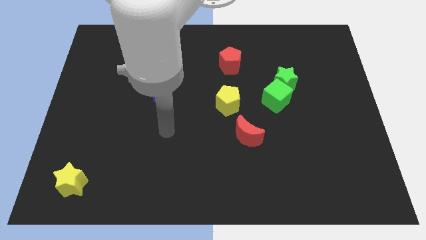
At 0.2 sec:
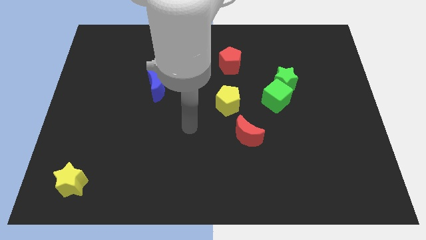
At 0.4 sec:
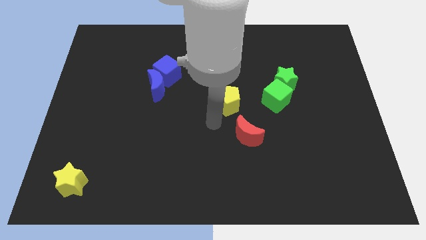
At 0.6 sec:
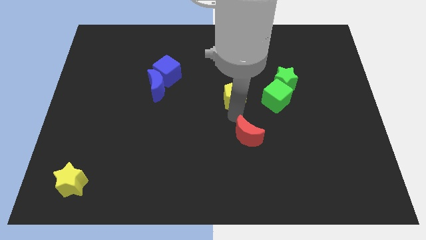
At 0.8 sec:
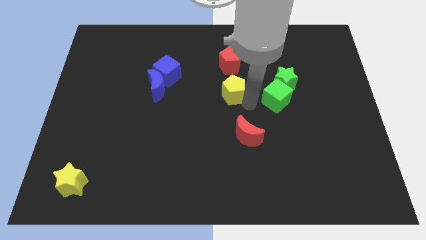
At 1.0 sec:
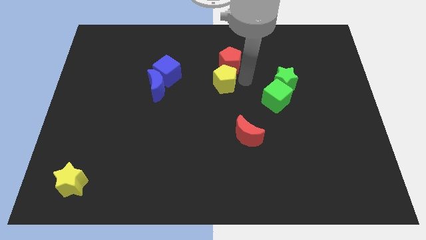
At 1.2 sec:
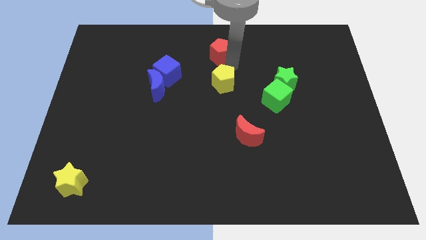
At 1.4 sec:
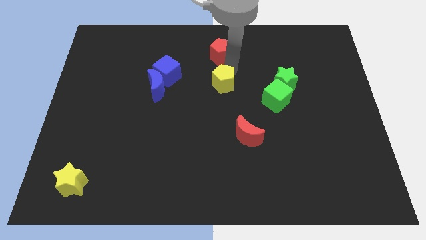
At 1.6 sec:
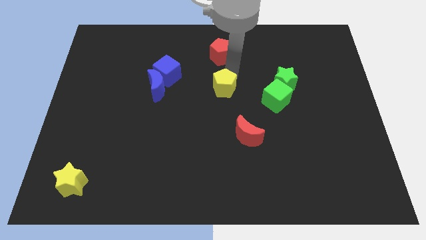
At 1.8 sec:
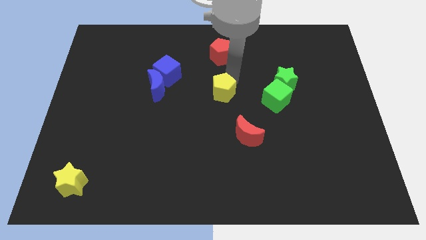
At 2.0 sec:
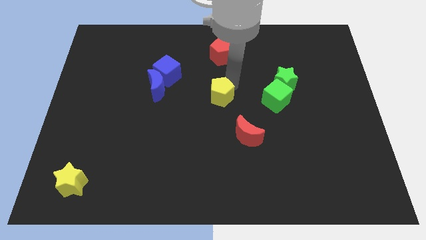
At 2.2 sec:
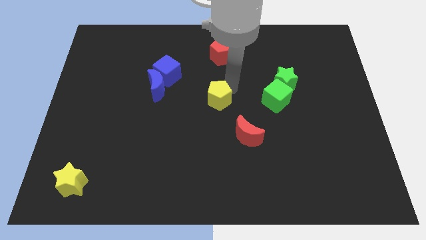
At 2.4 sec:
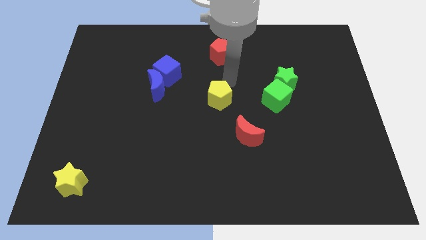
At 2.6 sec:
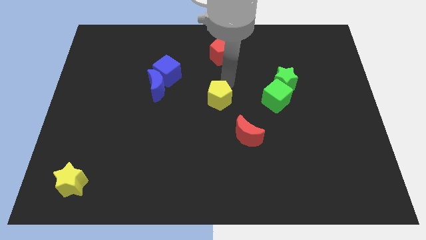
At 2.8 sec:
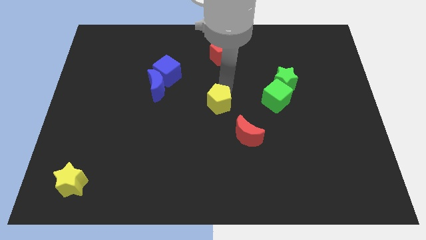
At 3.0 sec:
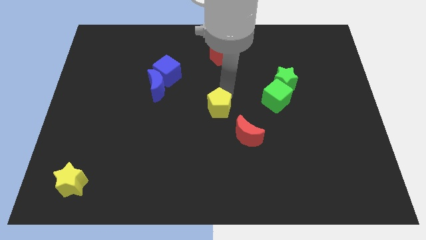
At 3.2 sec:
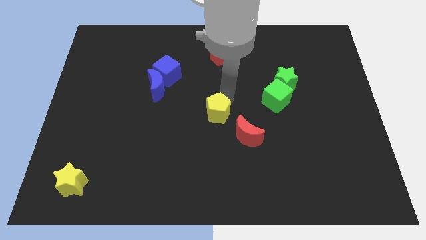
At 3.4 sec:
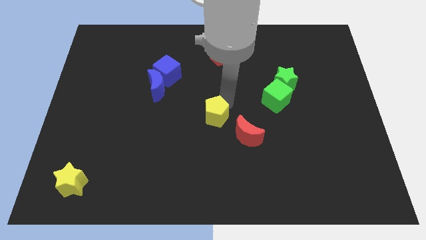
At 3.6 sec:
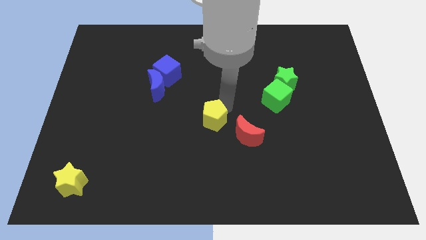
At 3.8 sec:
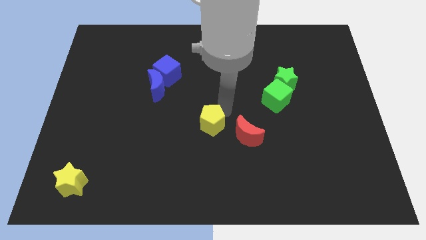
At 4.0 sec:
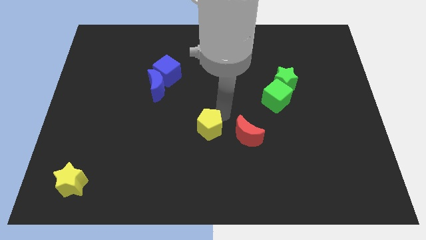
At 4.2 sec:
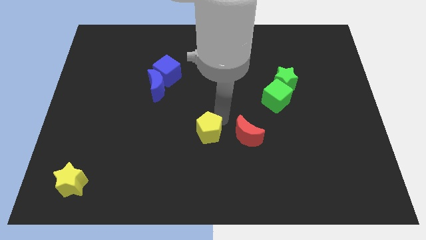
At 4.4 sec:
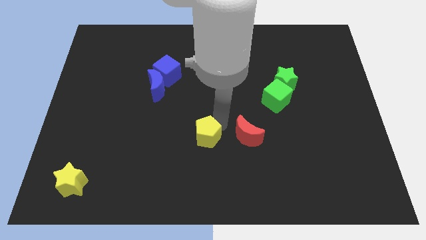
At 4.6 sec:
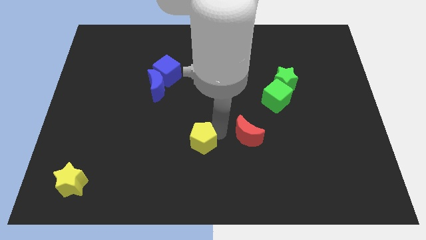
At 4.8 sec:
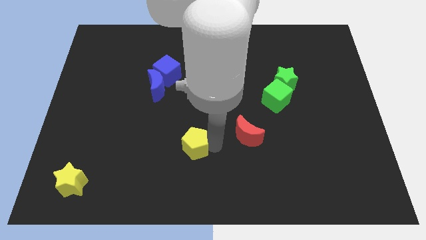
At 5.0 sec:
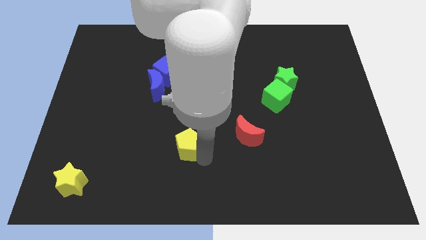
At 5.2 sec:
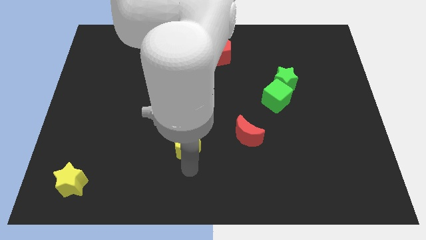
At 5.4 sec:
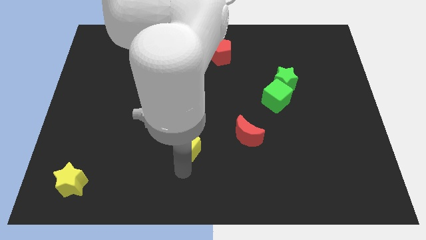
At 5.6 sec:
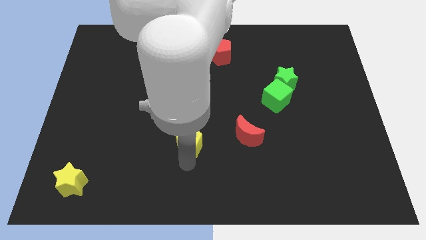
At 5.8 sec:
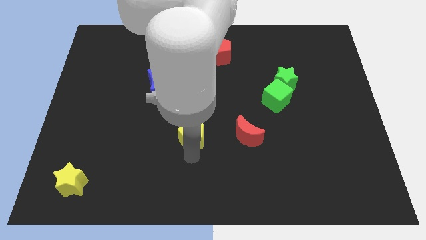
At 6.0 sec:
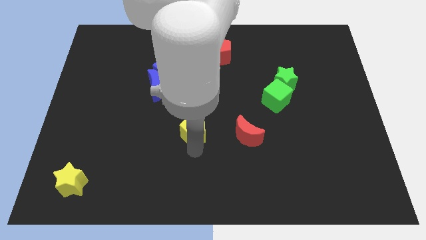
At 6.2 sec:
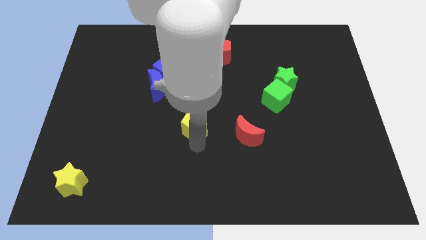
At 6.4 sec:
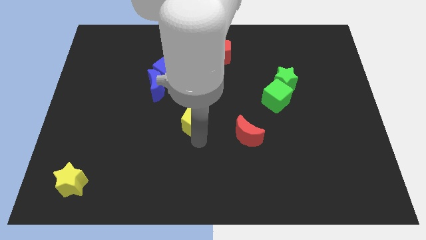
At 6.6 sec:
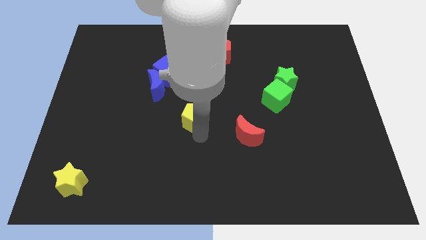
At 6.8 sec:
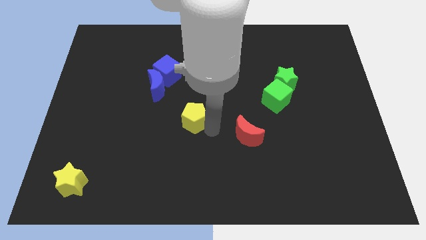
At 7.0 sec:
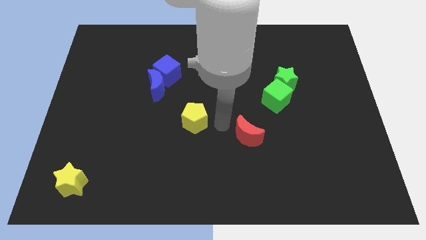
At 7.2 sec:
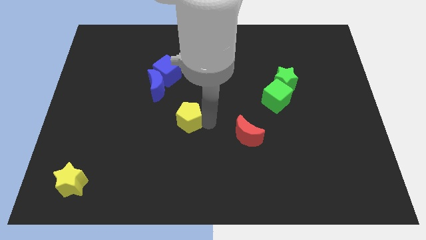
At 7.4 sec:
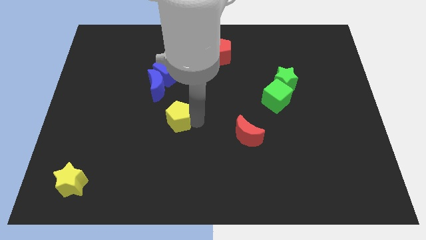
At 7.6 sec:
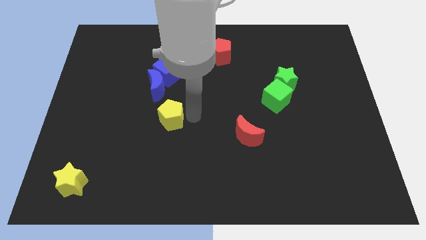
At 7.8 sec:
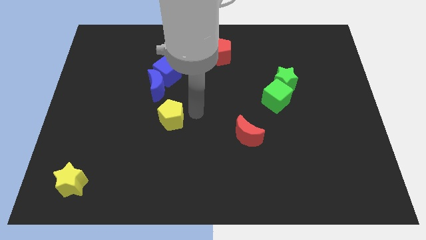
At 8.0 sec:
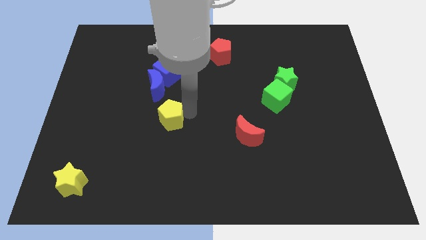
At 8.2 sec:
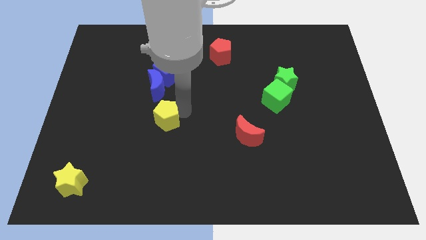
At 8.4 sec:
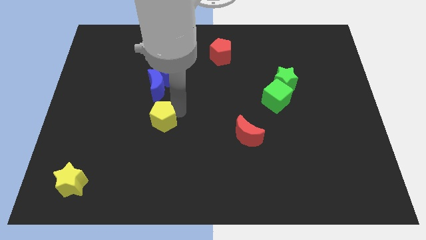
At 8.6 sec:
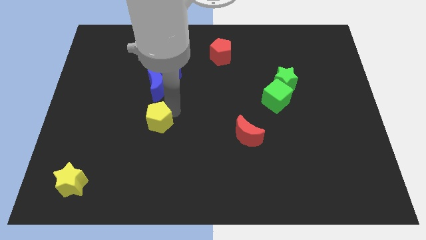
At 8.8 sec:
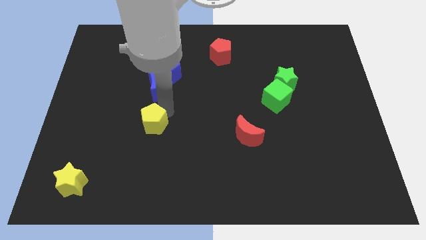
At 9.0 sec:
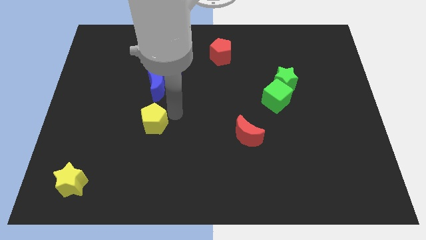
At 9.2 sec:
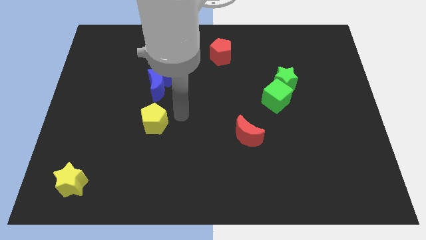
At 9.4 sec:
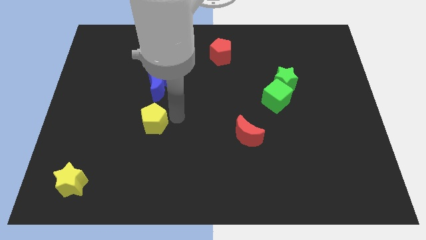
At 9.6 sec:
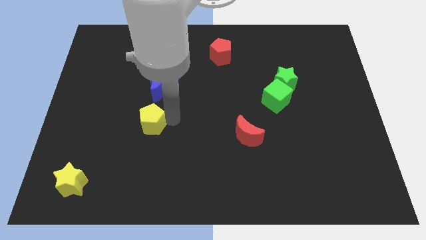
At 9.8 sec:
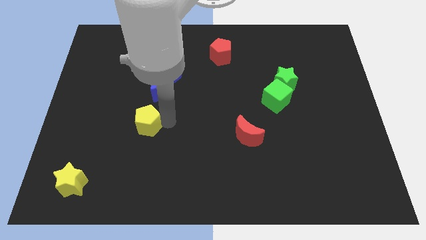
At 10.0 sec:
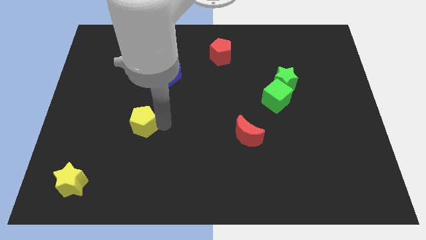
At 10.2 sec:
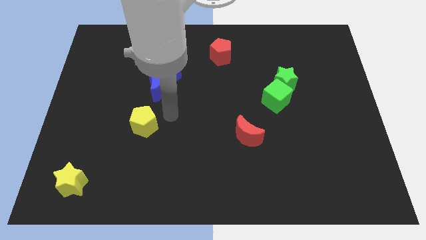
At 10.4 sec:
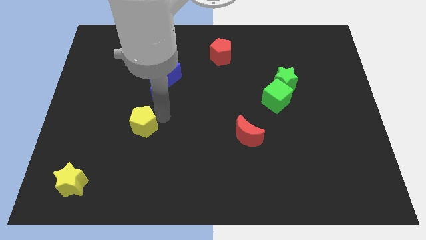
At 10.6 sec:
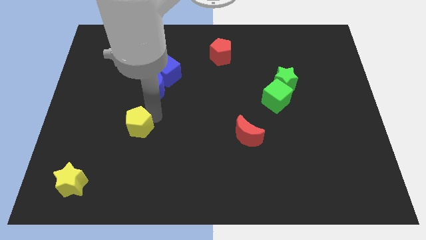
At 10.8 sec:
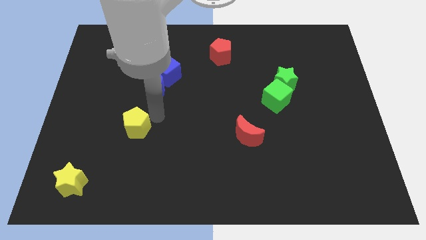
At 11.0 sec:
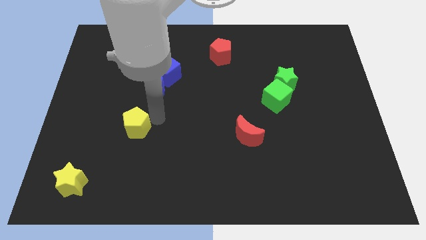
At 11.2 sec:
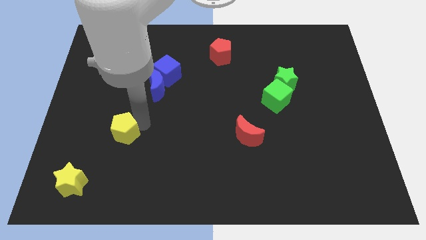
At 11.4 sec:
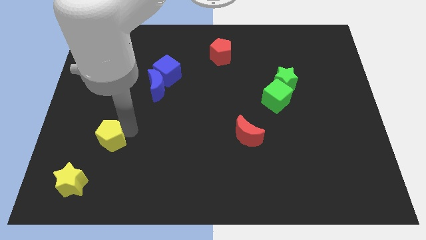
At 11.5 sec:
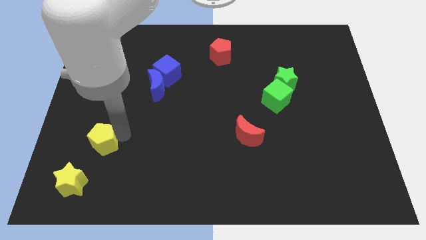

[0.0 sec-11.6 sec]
slide the yellow pentagon to the top of the yellow star
